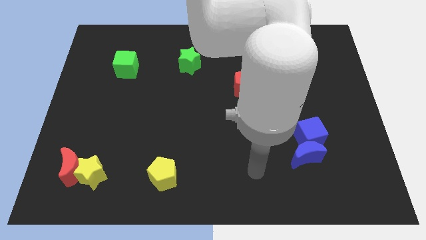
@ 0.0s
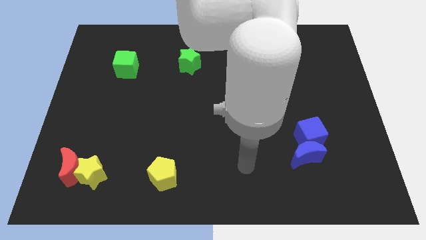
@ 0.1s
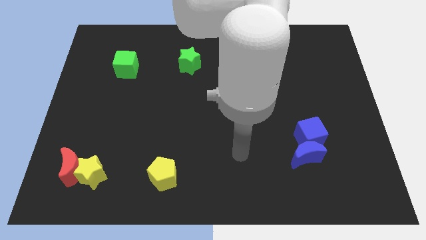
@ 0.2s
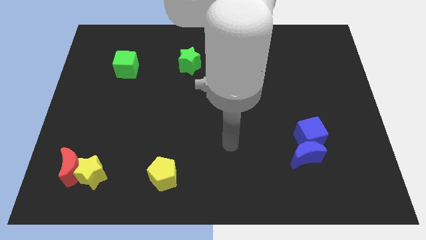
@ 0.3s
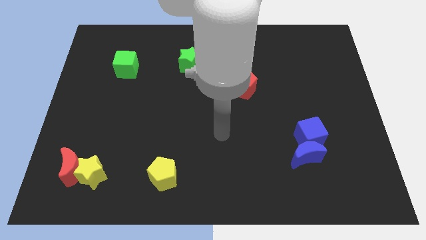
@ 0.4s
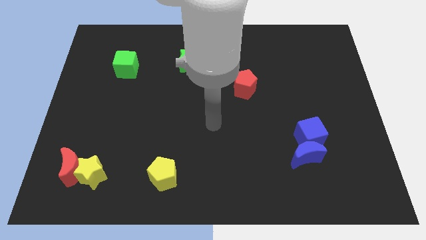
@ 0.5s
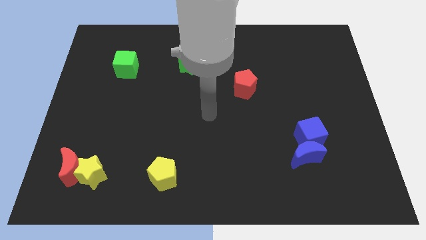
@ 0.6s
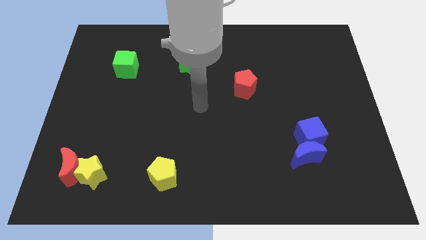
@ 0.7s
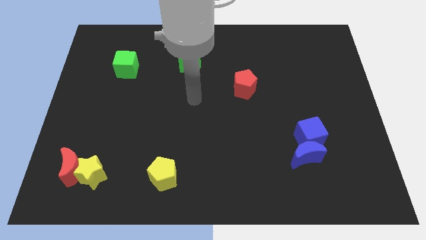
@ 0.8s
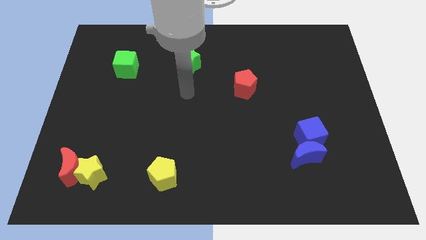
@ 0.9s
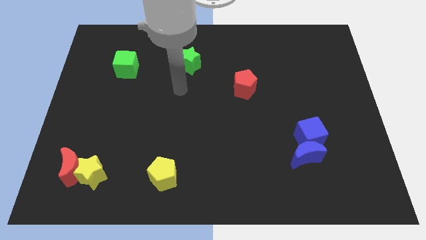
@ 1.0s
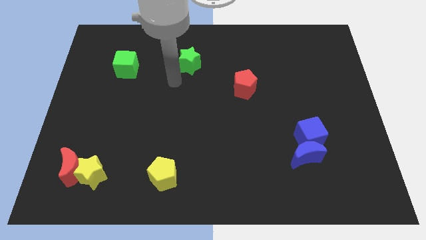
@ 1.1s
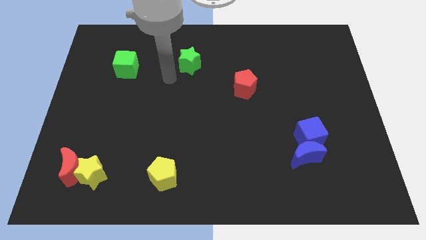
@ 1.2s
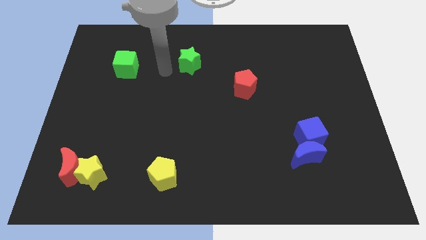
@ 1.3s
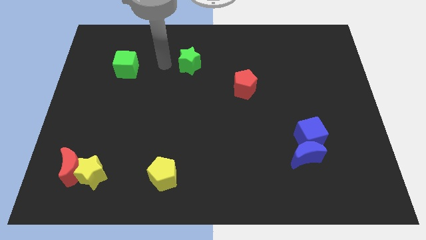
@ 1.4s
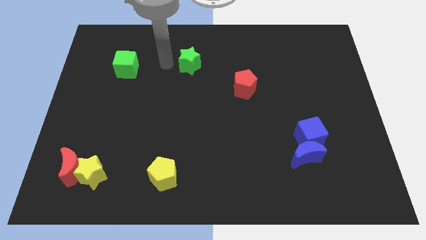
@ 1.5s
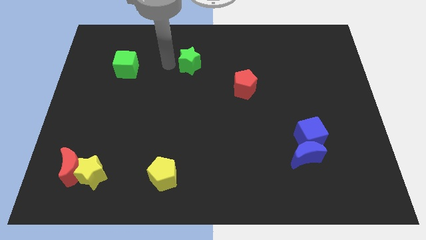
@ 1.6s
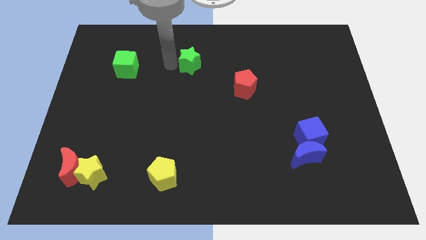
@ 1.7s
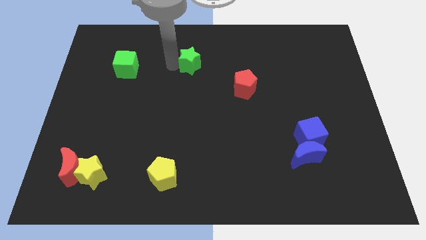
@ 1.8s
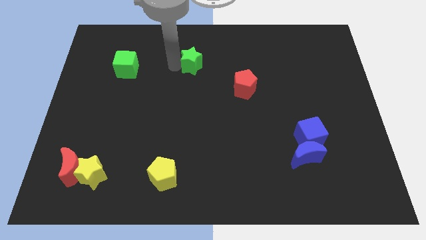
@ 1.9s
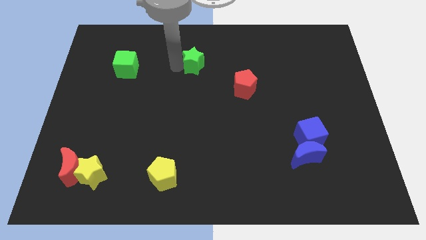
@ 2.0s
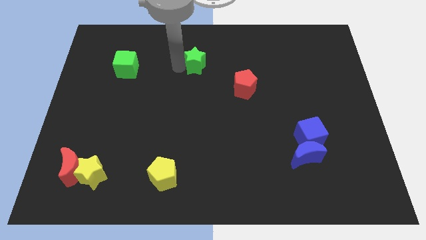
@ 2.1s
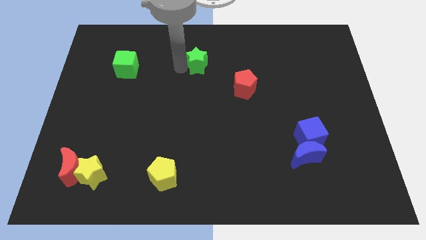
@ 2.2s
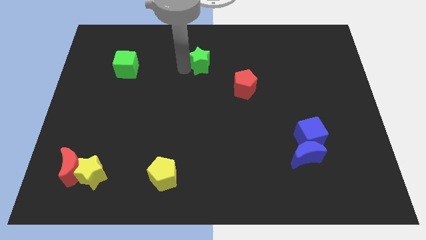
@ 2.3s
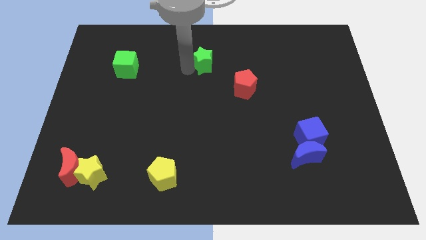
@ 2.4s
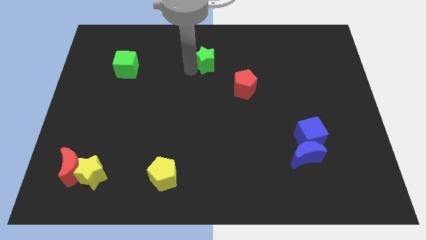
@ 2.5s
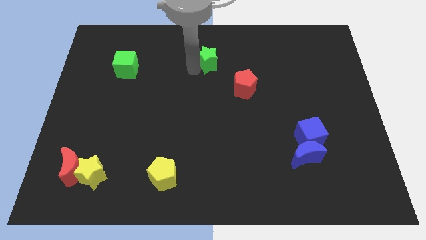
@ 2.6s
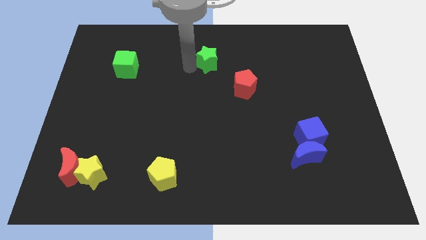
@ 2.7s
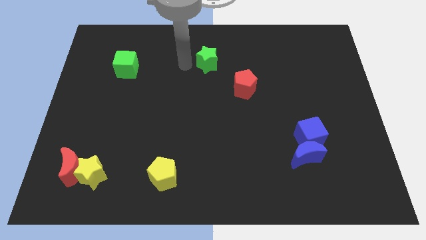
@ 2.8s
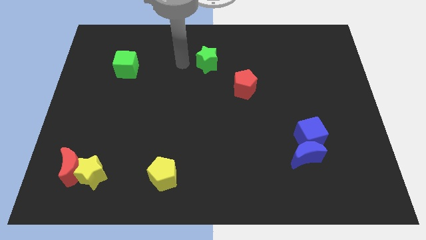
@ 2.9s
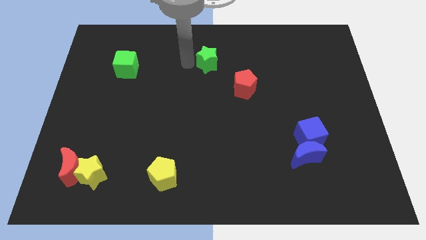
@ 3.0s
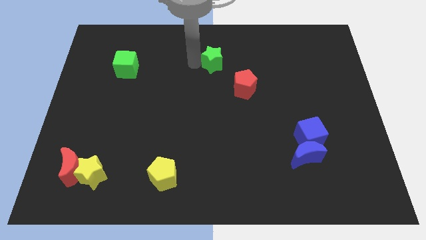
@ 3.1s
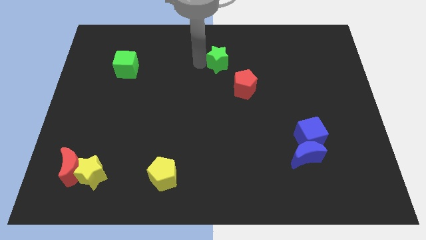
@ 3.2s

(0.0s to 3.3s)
push the green star to the right a bit

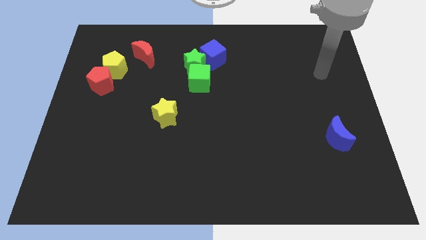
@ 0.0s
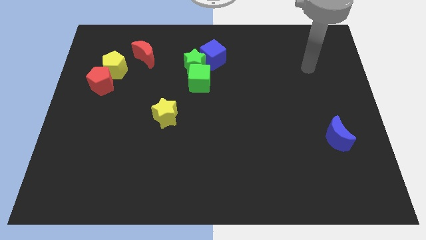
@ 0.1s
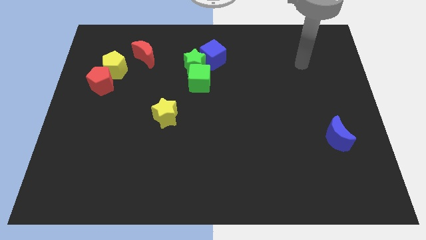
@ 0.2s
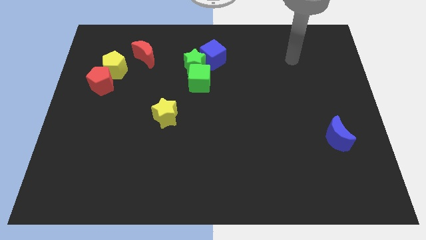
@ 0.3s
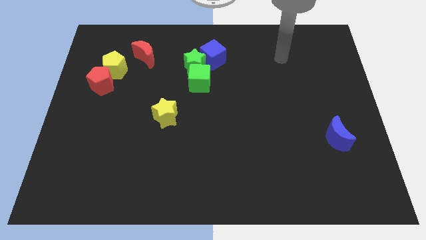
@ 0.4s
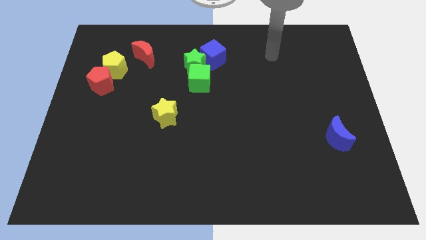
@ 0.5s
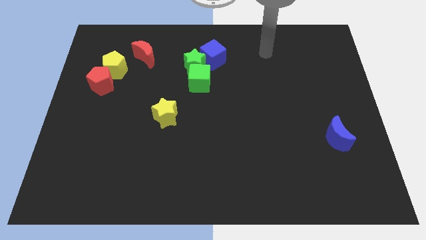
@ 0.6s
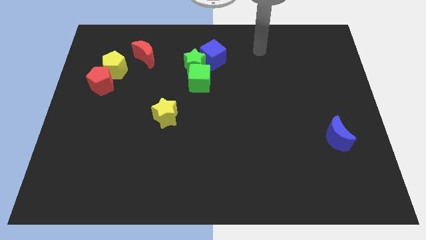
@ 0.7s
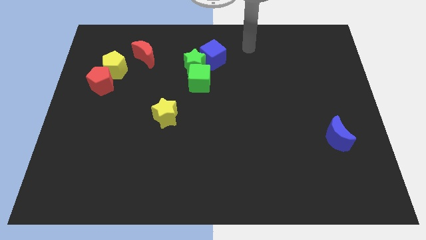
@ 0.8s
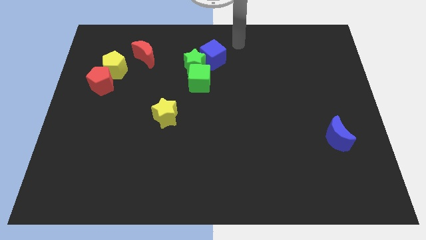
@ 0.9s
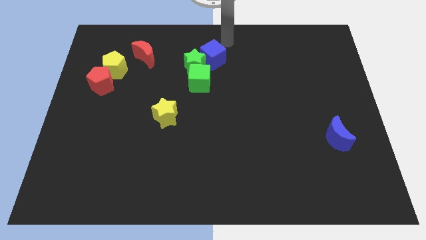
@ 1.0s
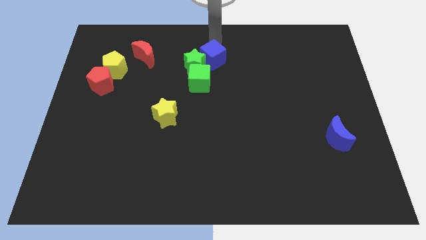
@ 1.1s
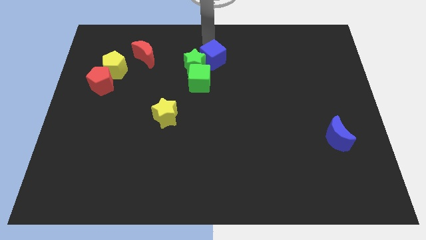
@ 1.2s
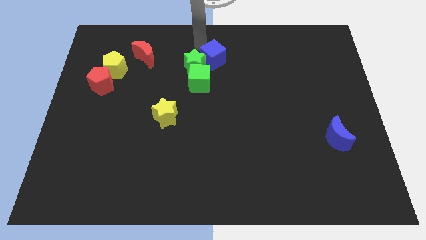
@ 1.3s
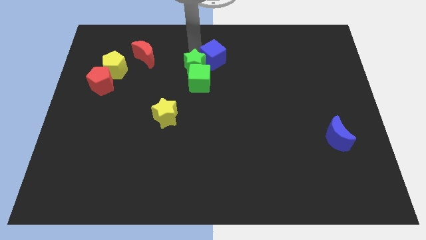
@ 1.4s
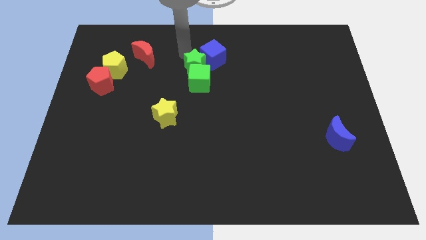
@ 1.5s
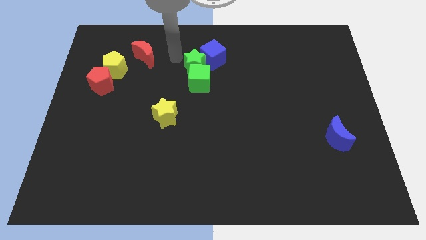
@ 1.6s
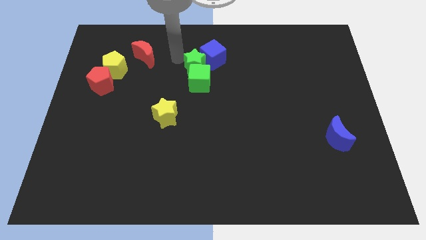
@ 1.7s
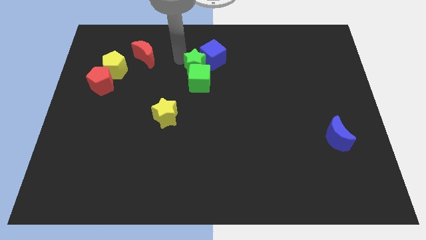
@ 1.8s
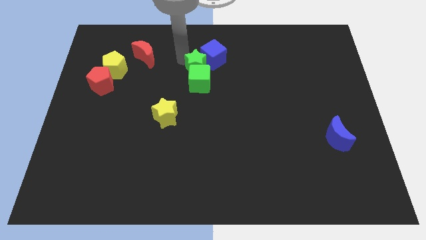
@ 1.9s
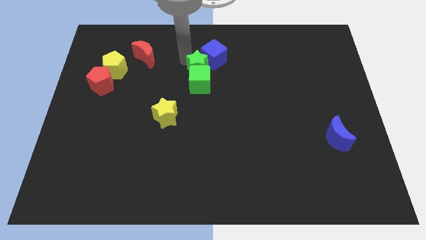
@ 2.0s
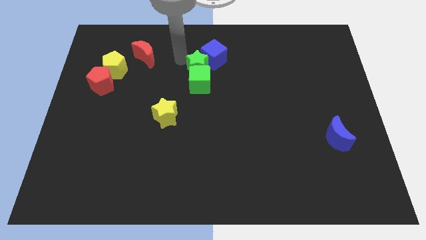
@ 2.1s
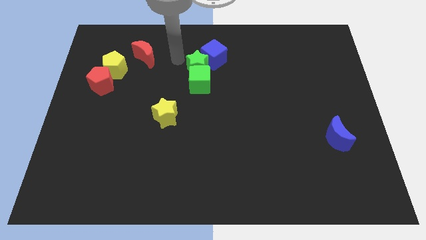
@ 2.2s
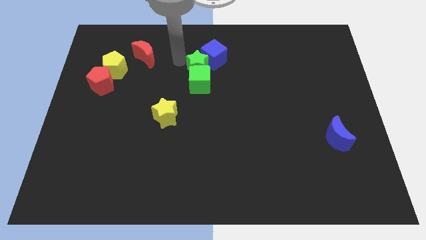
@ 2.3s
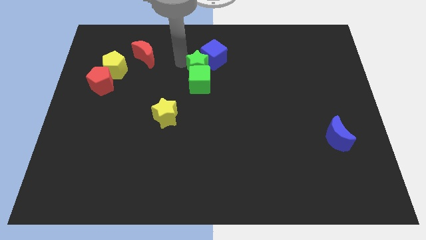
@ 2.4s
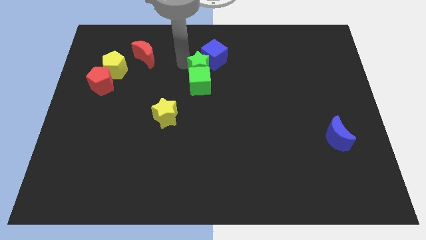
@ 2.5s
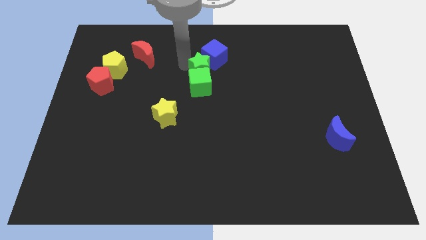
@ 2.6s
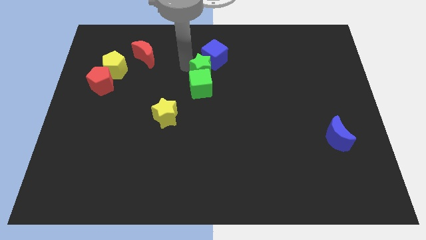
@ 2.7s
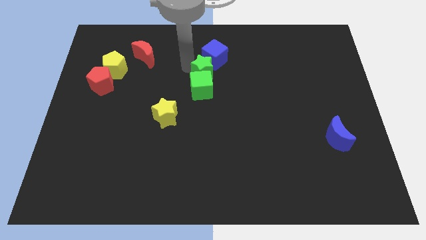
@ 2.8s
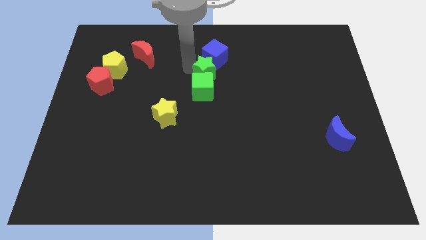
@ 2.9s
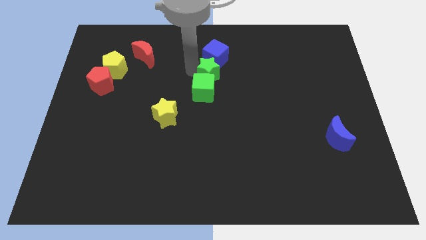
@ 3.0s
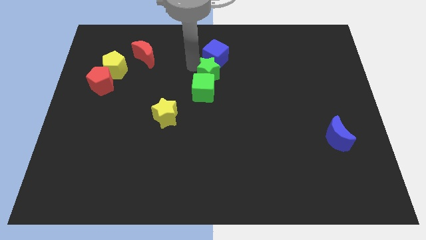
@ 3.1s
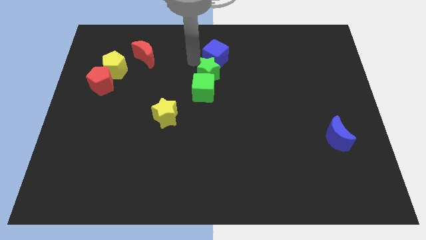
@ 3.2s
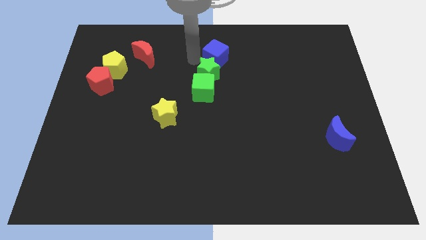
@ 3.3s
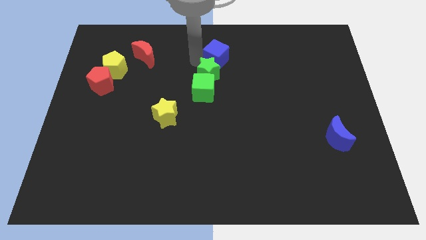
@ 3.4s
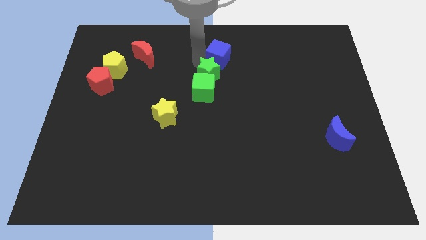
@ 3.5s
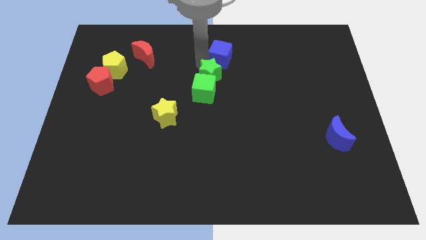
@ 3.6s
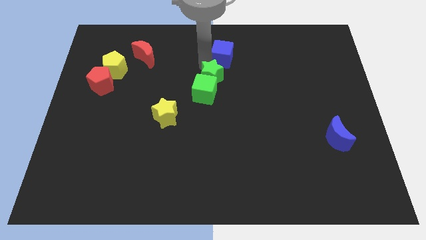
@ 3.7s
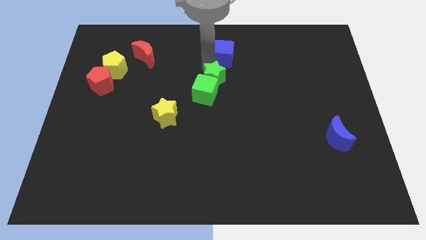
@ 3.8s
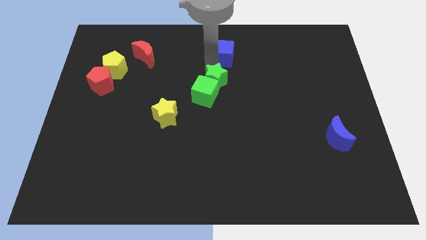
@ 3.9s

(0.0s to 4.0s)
push the green star a little bit down and to the right

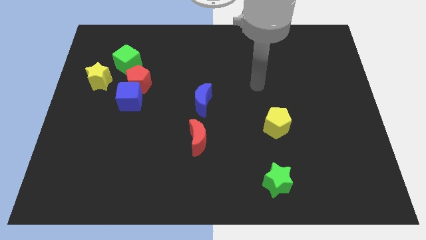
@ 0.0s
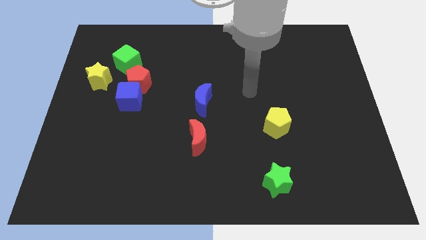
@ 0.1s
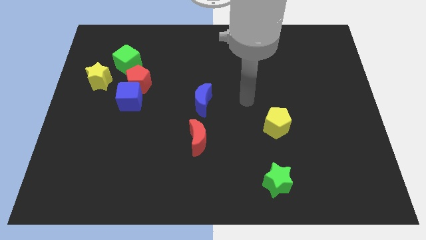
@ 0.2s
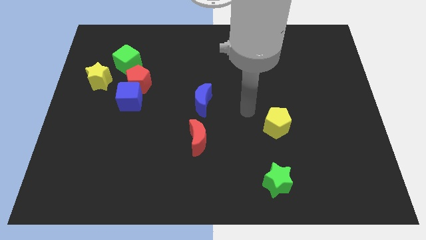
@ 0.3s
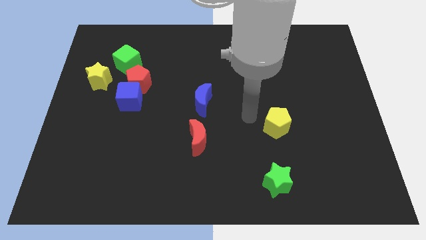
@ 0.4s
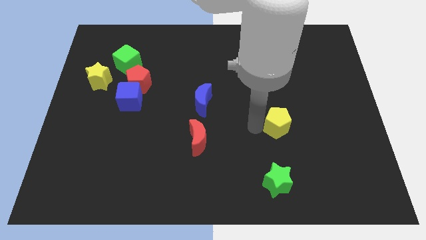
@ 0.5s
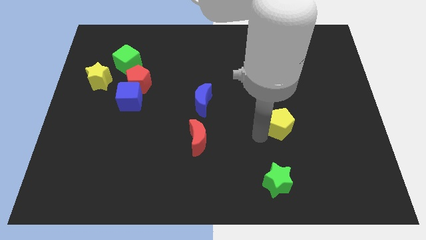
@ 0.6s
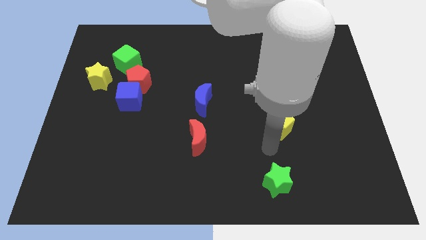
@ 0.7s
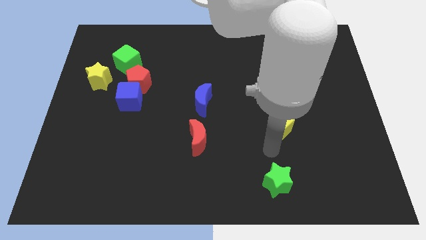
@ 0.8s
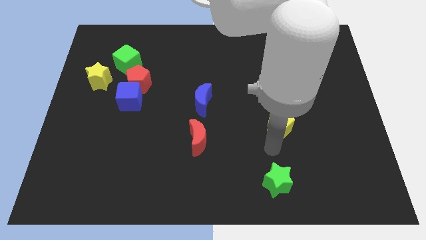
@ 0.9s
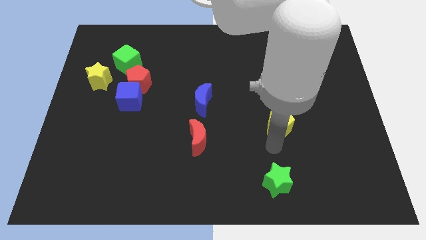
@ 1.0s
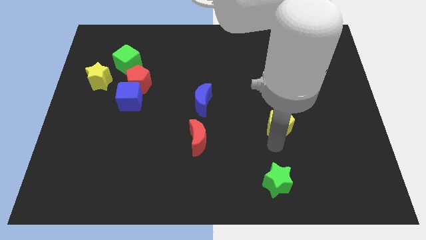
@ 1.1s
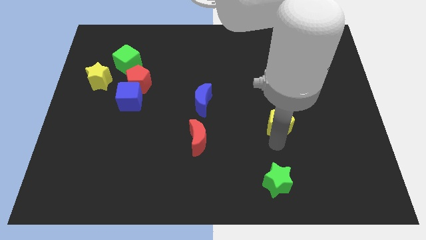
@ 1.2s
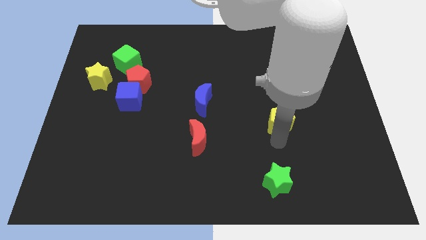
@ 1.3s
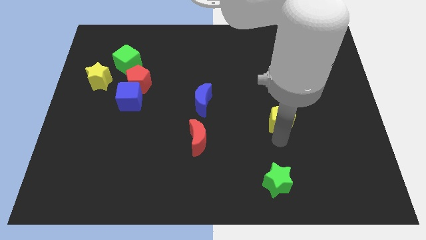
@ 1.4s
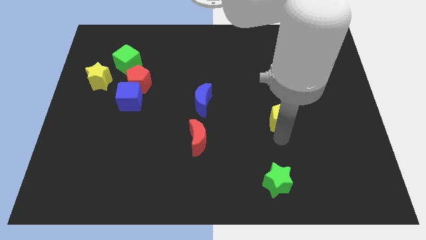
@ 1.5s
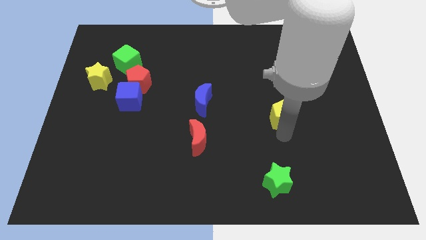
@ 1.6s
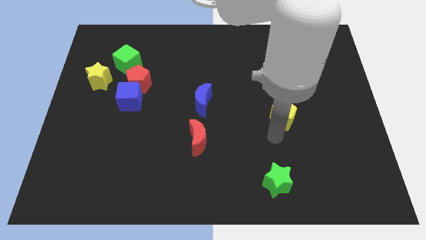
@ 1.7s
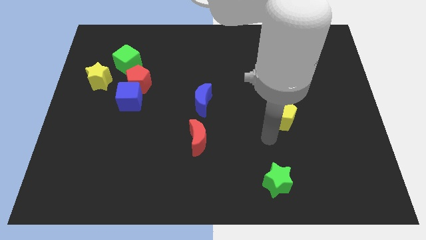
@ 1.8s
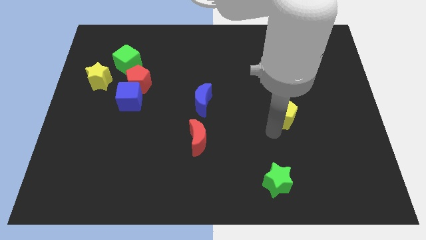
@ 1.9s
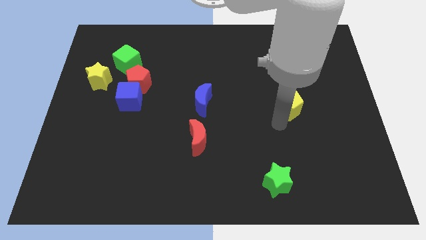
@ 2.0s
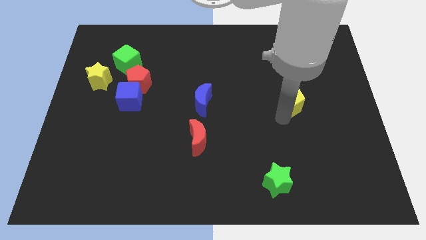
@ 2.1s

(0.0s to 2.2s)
slide the yellow pentagon up and then right somewhat
